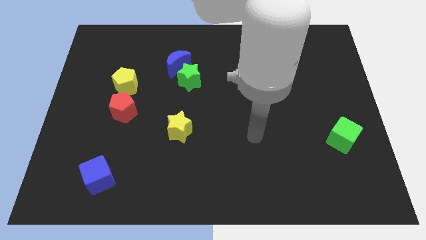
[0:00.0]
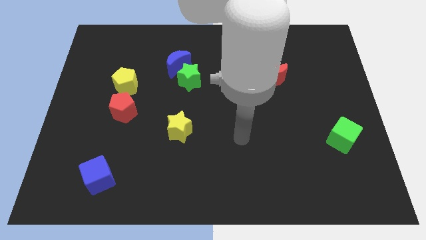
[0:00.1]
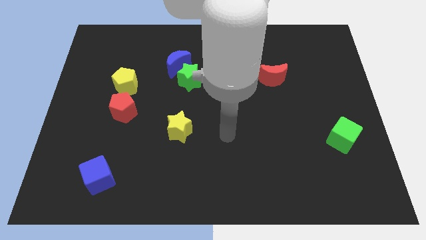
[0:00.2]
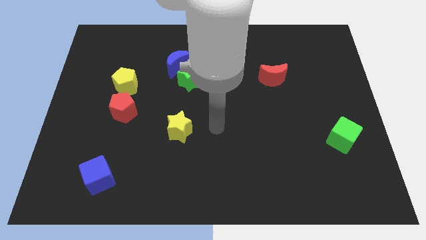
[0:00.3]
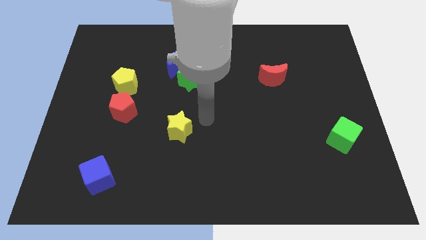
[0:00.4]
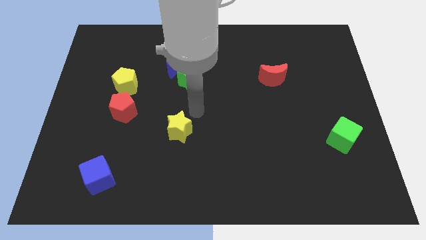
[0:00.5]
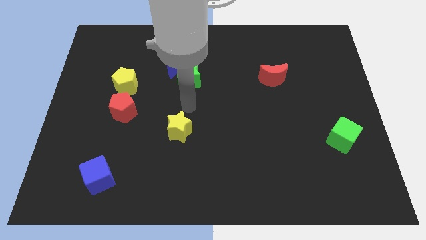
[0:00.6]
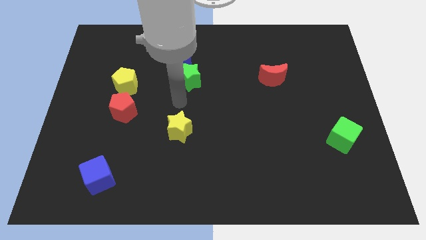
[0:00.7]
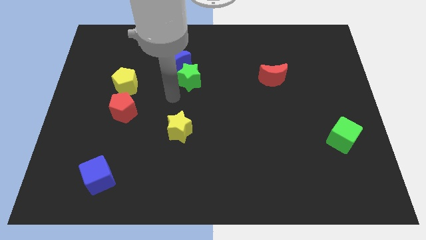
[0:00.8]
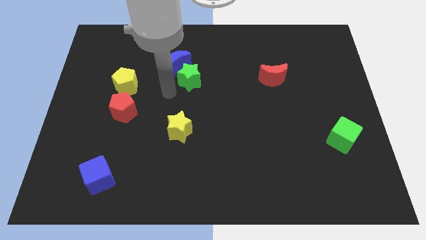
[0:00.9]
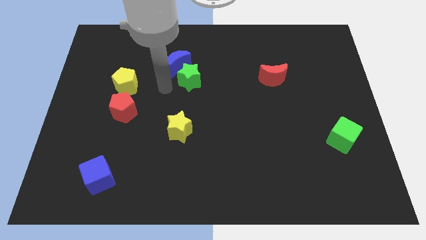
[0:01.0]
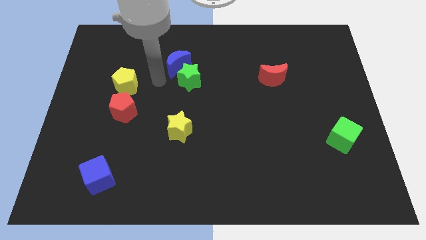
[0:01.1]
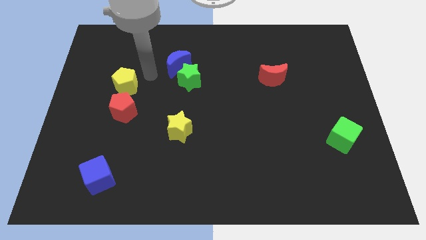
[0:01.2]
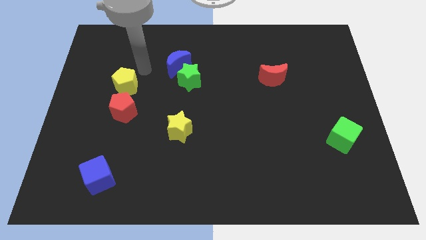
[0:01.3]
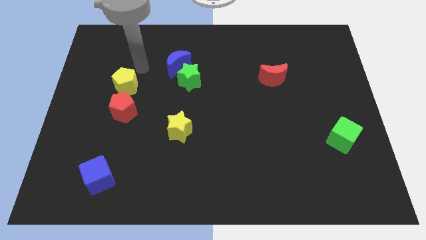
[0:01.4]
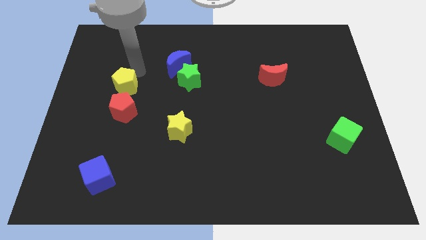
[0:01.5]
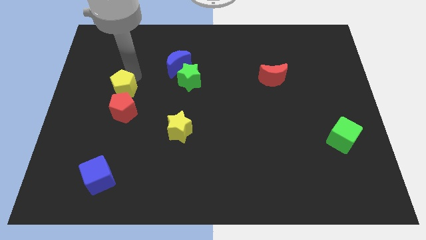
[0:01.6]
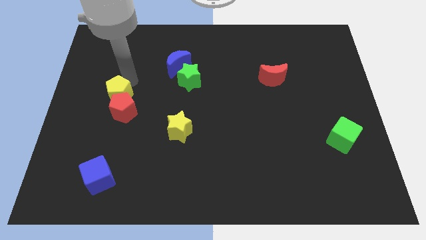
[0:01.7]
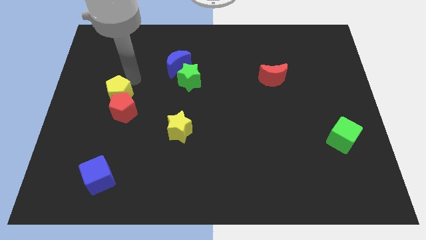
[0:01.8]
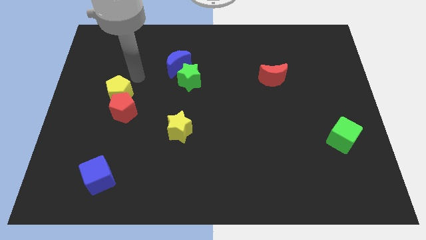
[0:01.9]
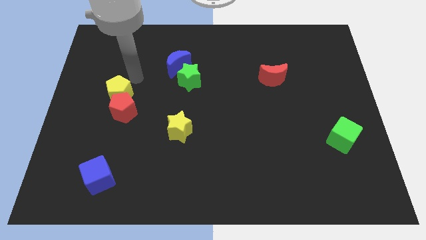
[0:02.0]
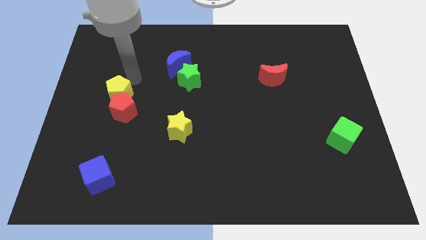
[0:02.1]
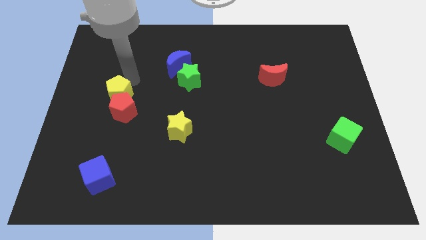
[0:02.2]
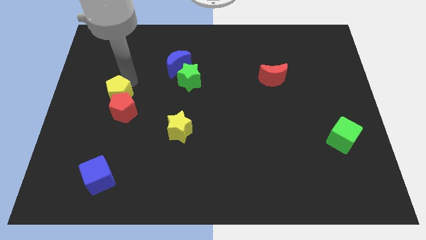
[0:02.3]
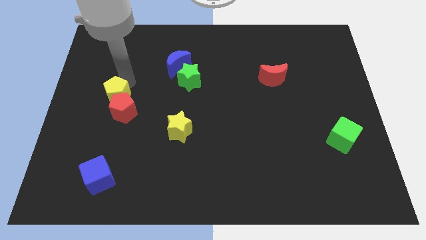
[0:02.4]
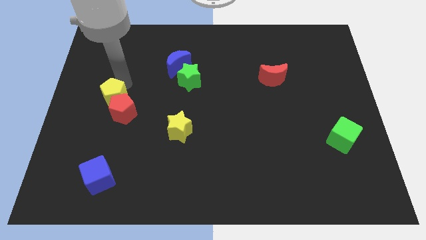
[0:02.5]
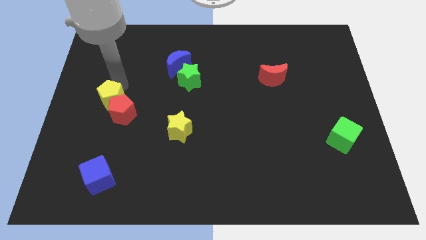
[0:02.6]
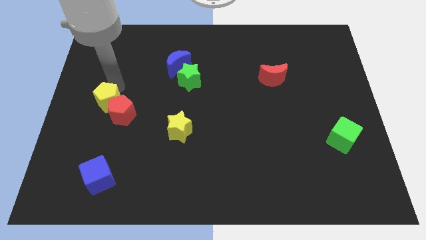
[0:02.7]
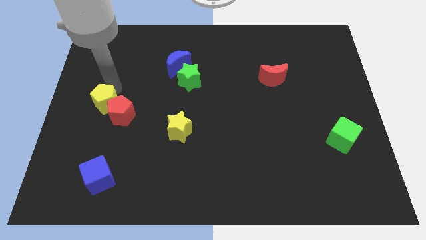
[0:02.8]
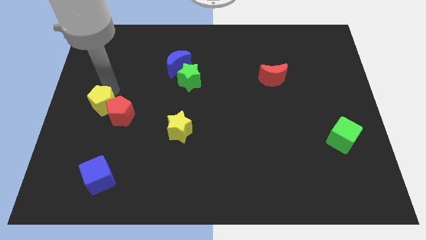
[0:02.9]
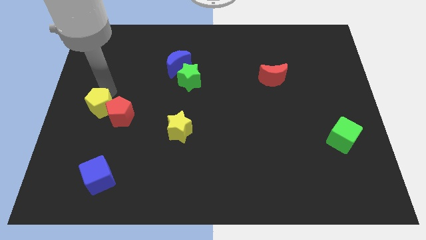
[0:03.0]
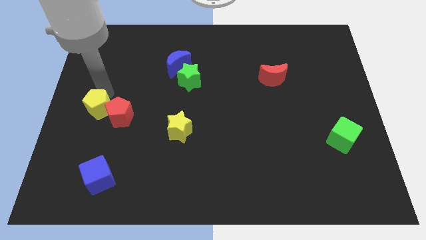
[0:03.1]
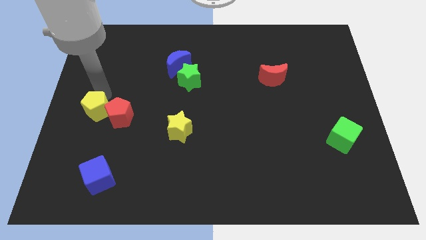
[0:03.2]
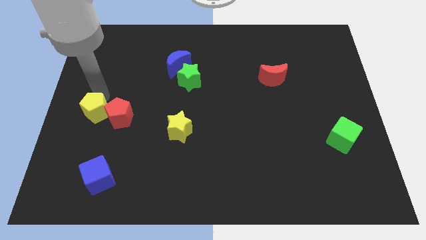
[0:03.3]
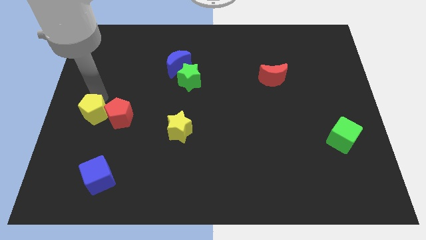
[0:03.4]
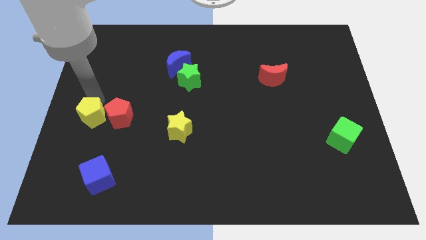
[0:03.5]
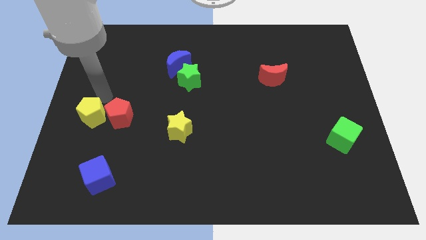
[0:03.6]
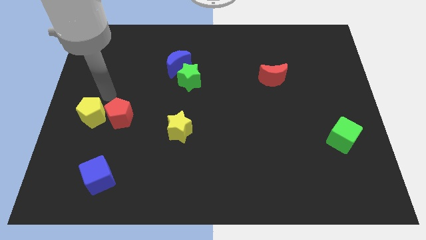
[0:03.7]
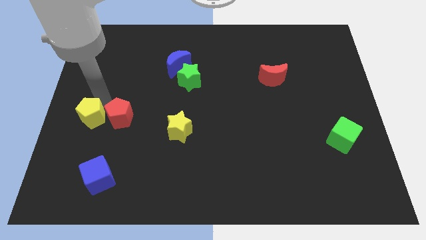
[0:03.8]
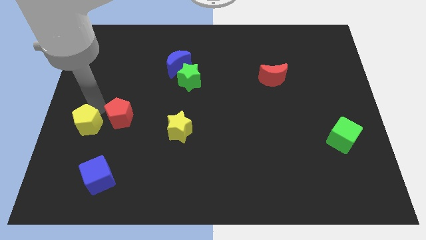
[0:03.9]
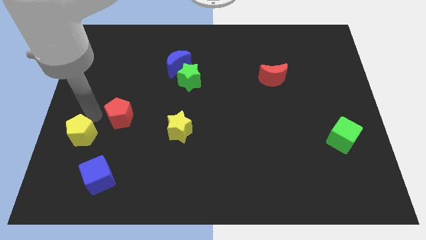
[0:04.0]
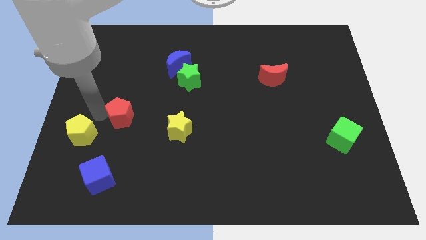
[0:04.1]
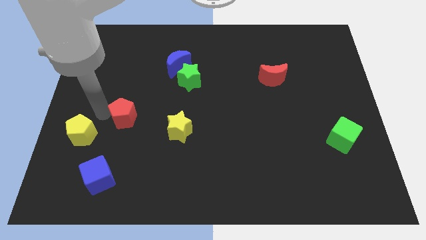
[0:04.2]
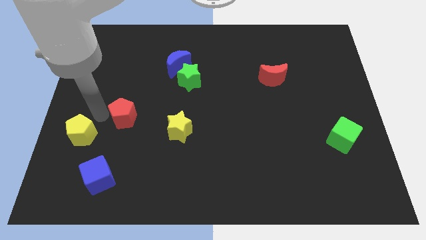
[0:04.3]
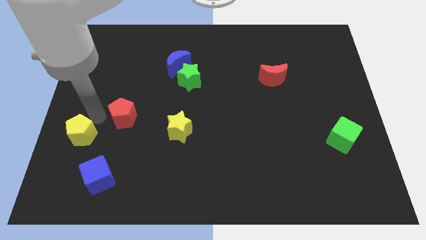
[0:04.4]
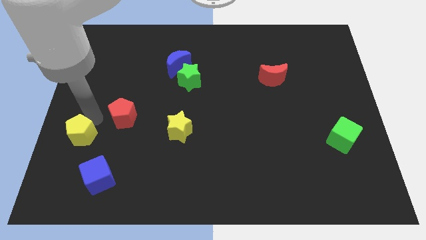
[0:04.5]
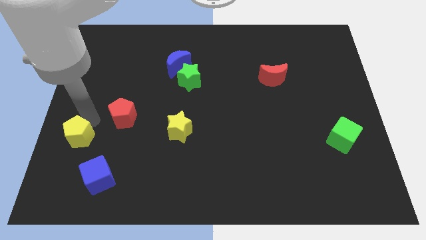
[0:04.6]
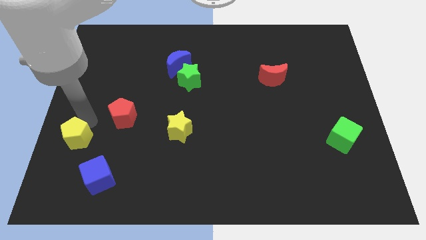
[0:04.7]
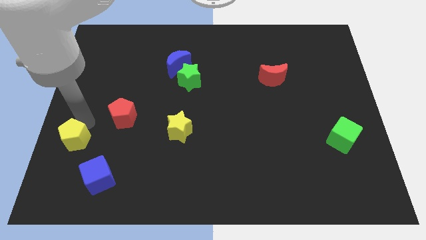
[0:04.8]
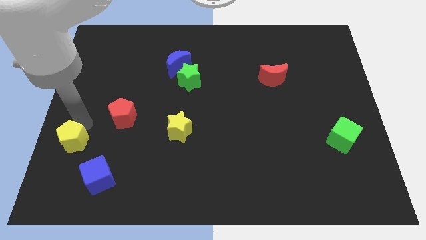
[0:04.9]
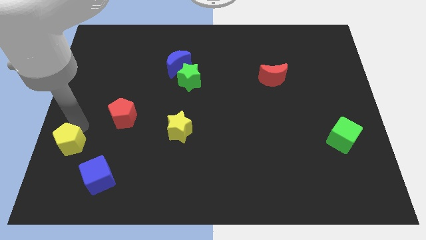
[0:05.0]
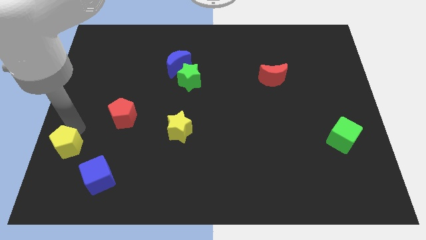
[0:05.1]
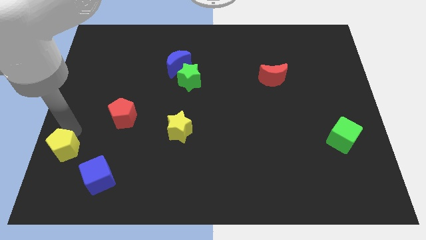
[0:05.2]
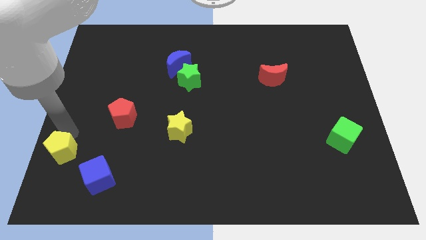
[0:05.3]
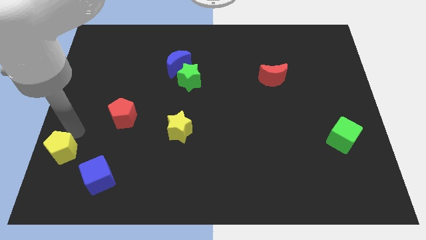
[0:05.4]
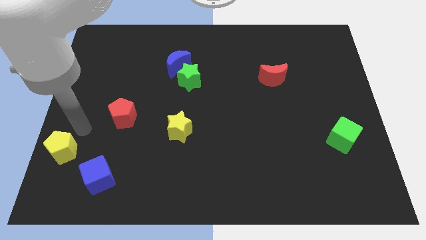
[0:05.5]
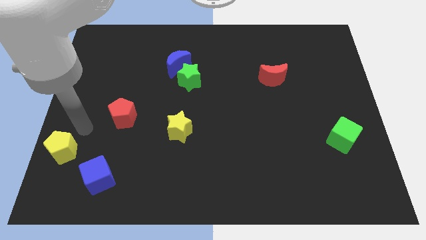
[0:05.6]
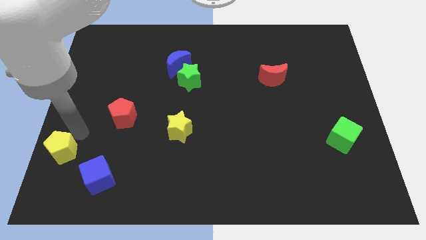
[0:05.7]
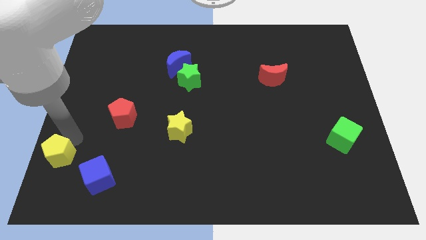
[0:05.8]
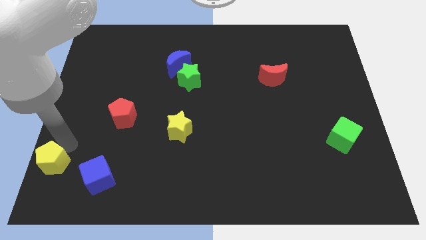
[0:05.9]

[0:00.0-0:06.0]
slide the yellow pentagon to the bottom left
